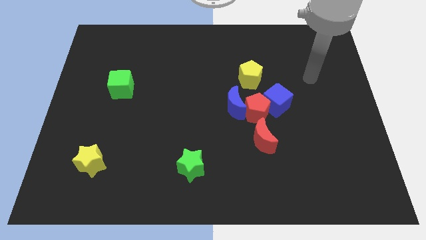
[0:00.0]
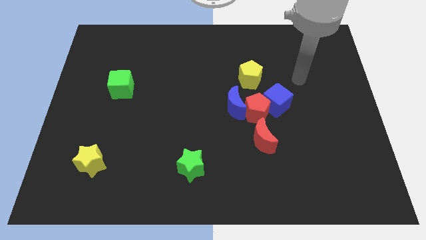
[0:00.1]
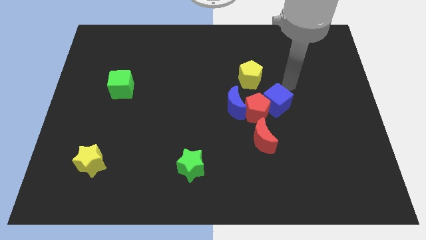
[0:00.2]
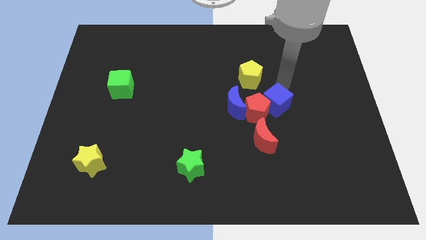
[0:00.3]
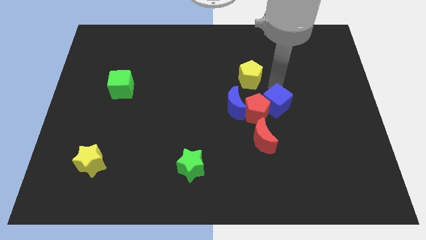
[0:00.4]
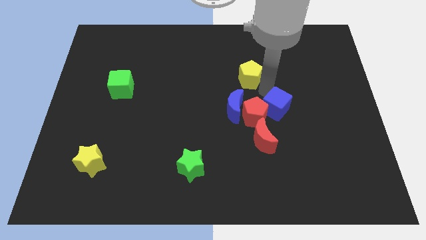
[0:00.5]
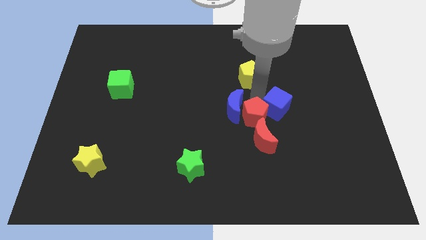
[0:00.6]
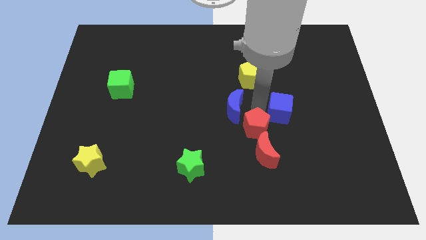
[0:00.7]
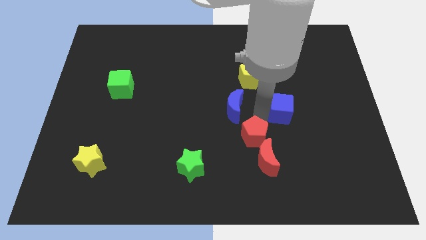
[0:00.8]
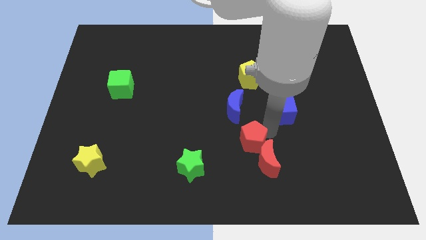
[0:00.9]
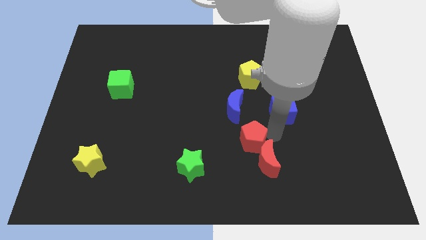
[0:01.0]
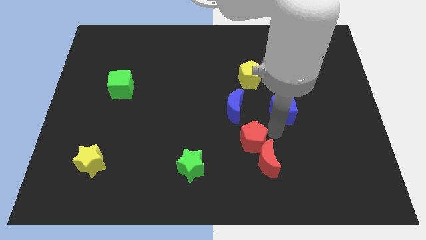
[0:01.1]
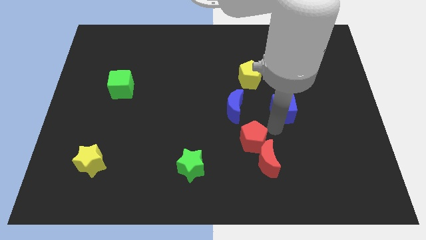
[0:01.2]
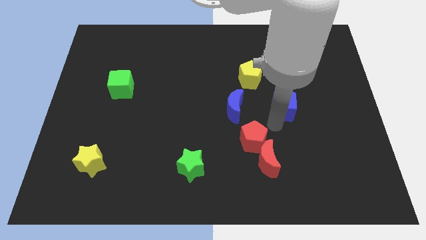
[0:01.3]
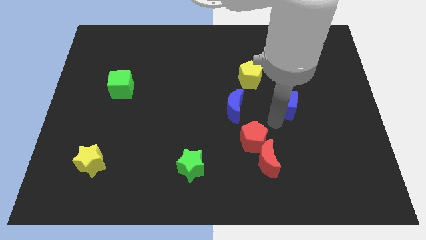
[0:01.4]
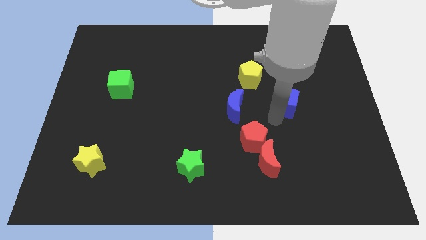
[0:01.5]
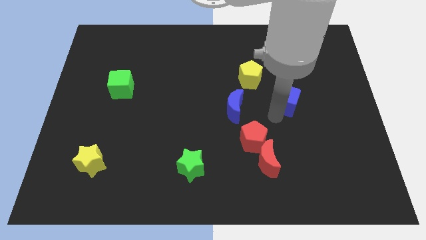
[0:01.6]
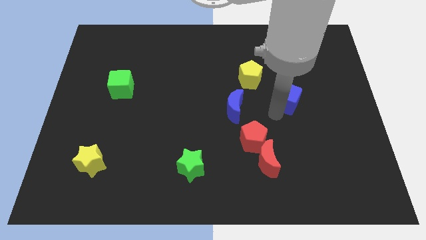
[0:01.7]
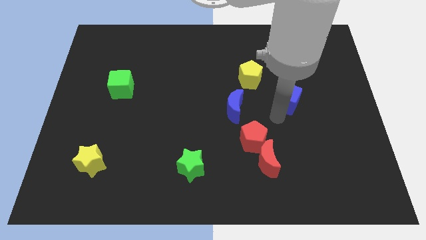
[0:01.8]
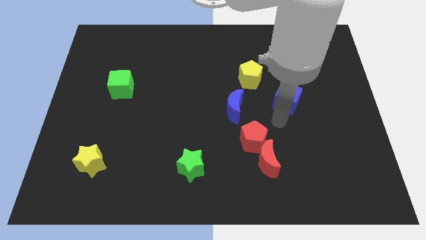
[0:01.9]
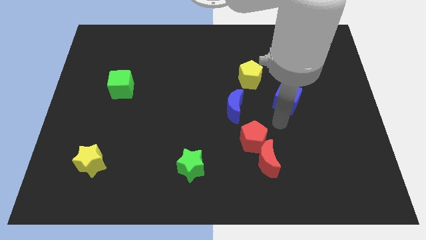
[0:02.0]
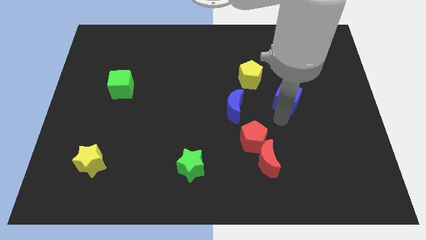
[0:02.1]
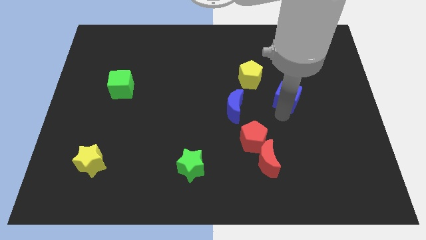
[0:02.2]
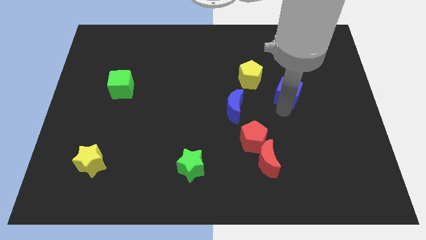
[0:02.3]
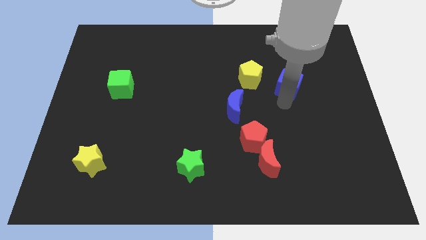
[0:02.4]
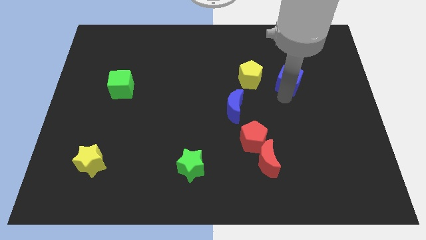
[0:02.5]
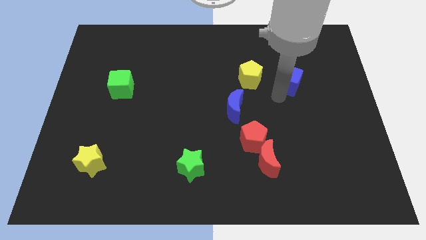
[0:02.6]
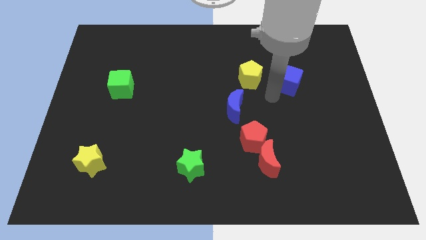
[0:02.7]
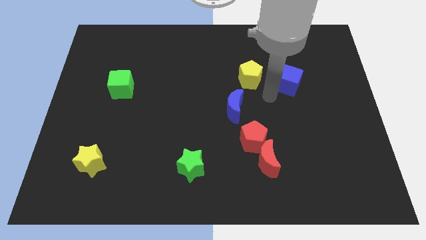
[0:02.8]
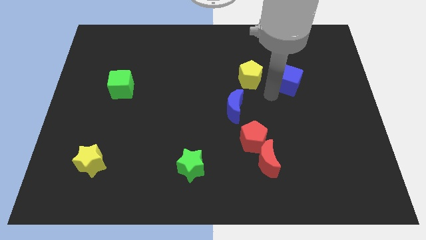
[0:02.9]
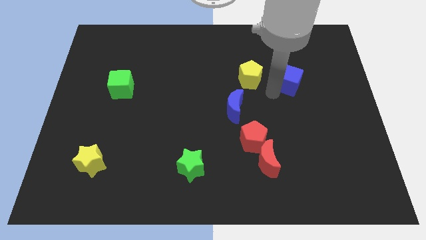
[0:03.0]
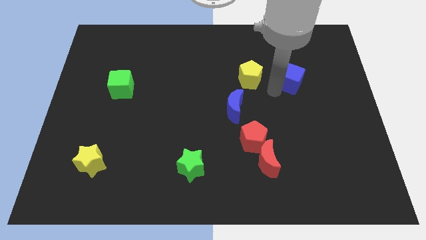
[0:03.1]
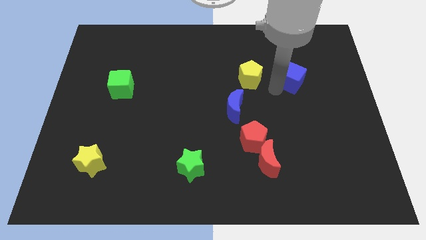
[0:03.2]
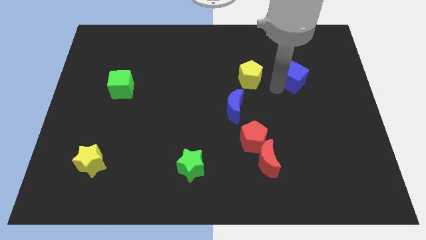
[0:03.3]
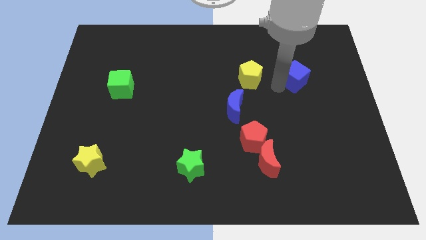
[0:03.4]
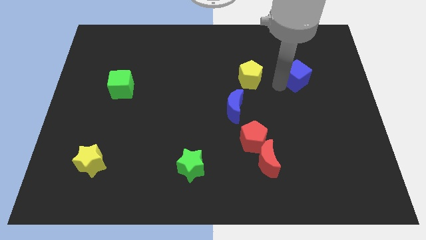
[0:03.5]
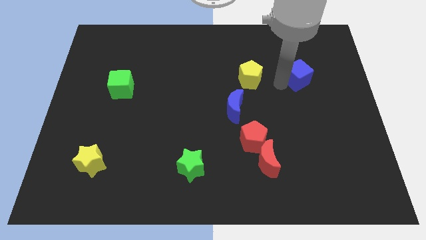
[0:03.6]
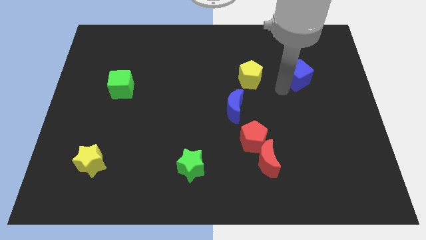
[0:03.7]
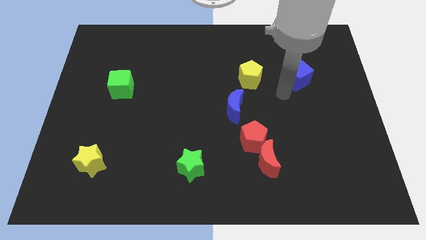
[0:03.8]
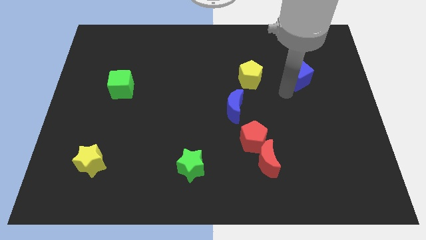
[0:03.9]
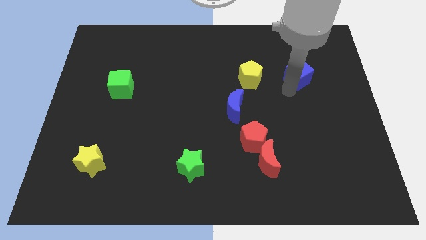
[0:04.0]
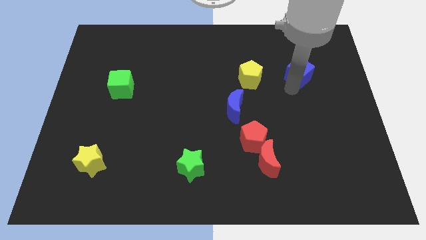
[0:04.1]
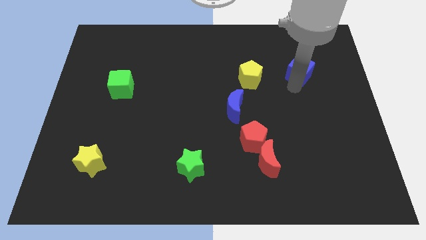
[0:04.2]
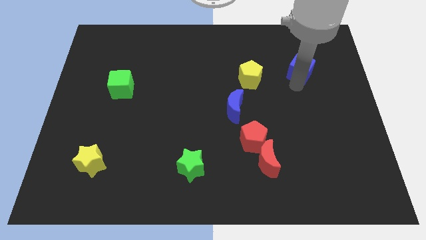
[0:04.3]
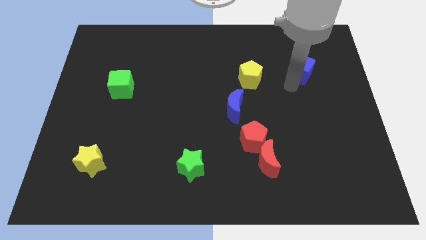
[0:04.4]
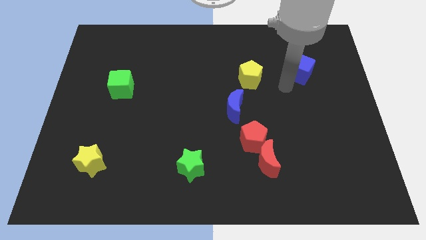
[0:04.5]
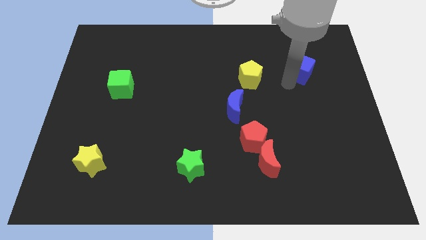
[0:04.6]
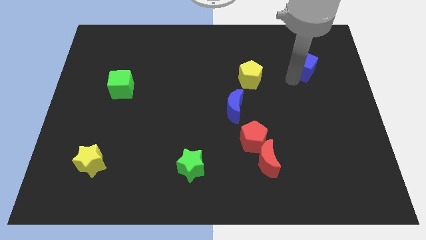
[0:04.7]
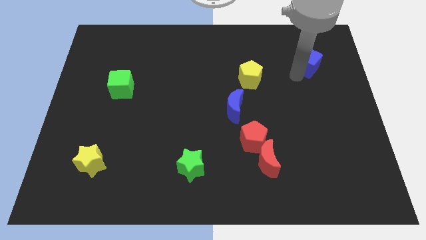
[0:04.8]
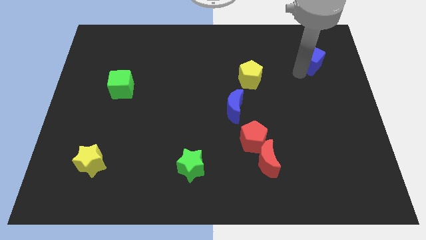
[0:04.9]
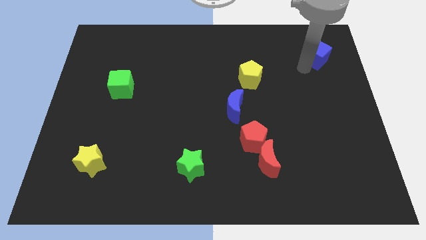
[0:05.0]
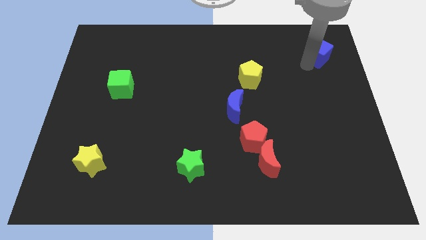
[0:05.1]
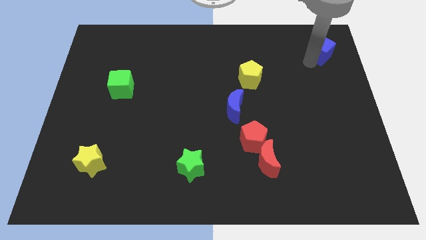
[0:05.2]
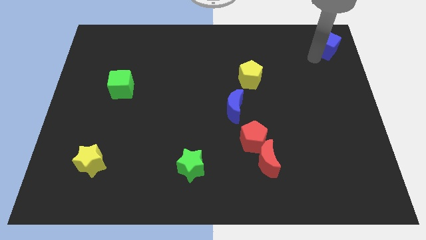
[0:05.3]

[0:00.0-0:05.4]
put the blue cube to the top right

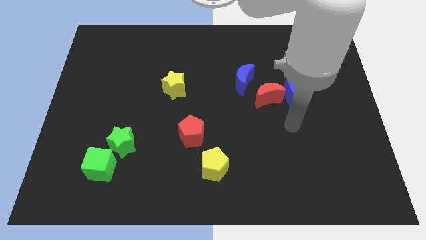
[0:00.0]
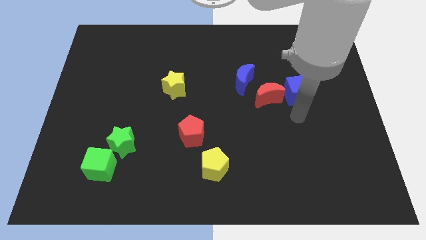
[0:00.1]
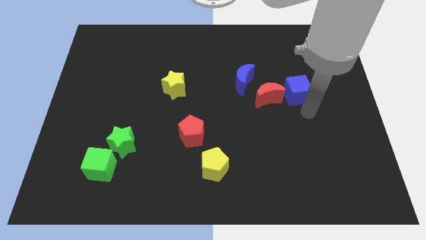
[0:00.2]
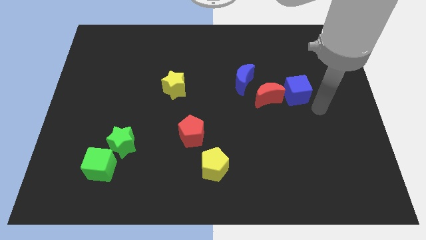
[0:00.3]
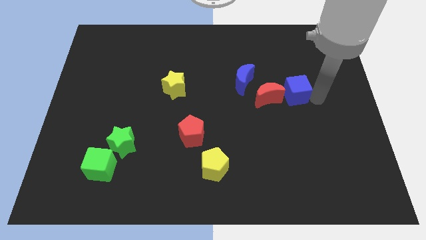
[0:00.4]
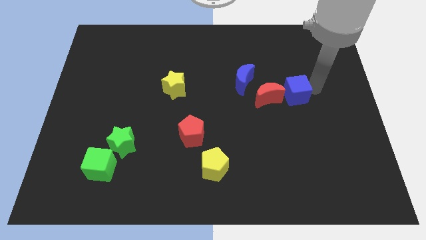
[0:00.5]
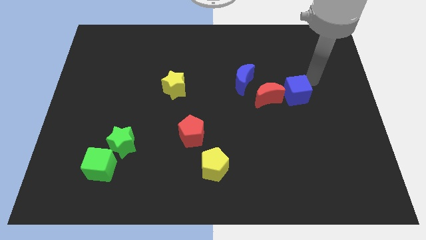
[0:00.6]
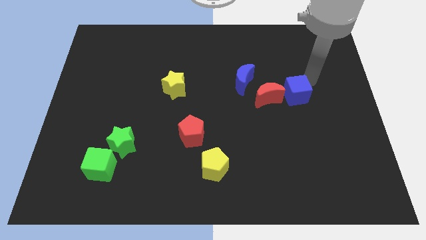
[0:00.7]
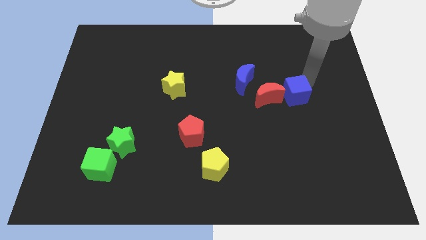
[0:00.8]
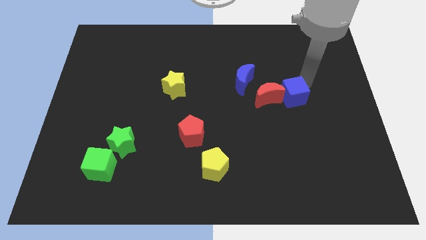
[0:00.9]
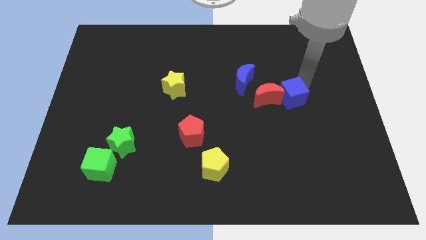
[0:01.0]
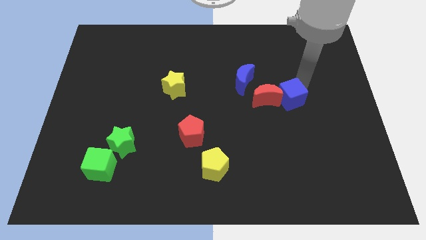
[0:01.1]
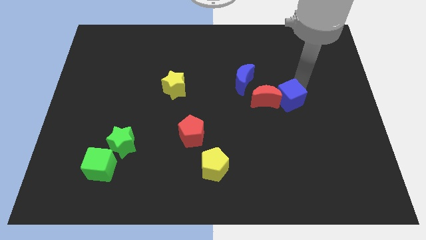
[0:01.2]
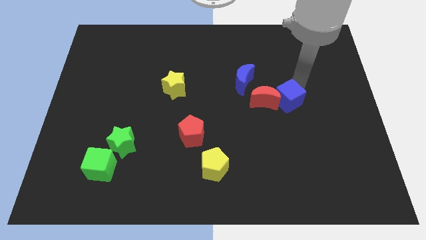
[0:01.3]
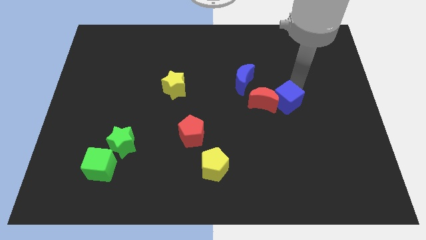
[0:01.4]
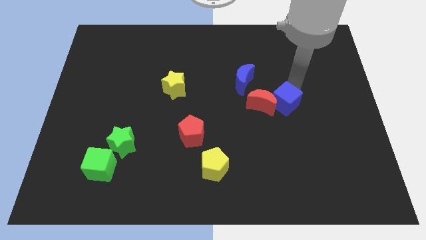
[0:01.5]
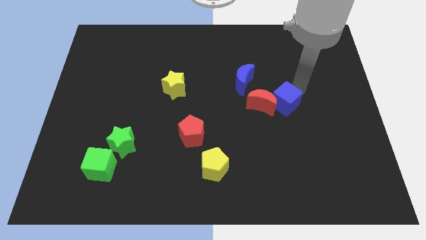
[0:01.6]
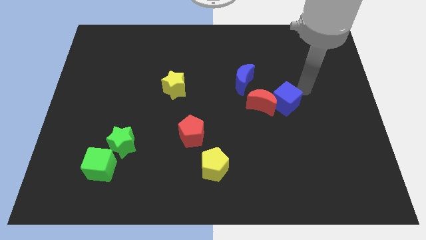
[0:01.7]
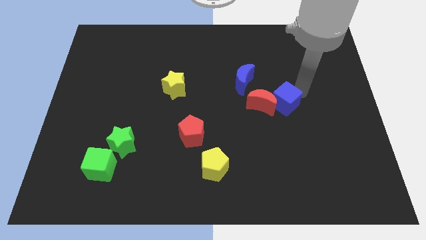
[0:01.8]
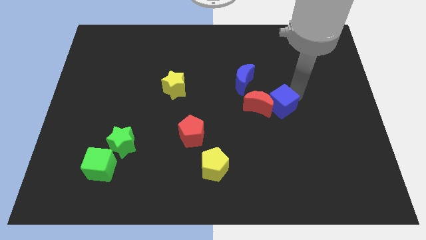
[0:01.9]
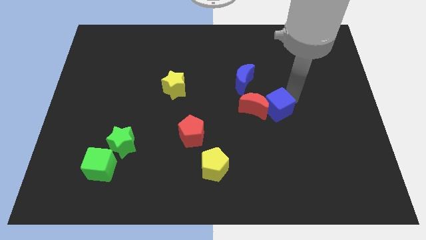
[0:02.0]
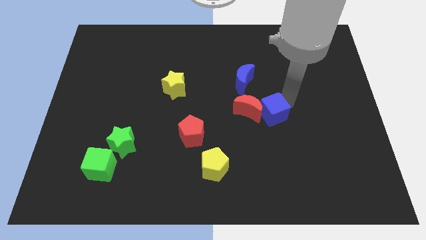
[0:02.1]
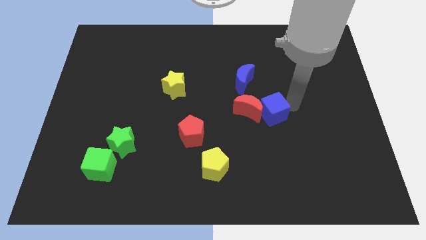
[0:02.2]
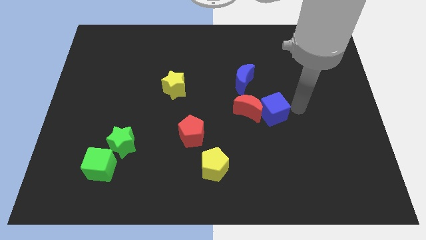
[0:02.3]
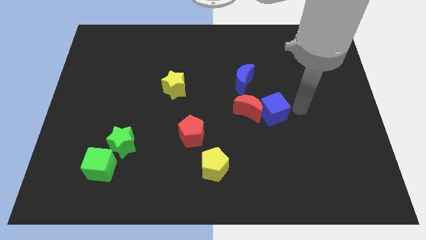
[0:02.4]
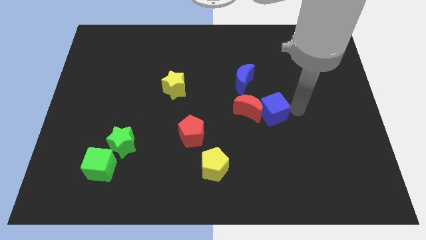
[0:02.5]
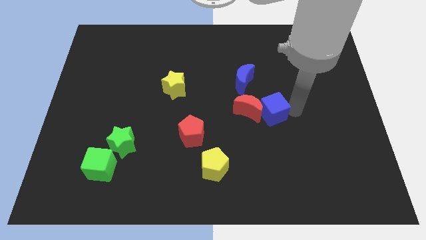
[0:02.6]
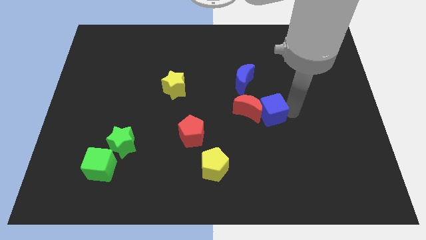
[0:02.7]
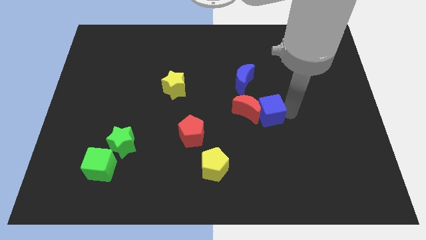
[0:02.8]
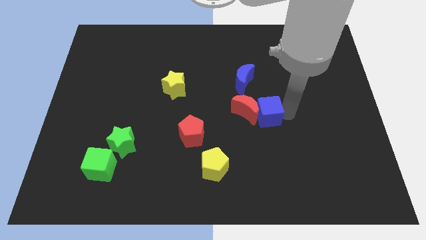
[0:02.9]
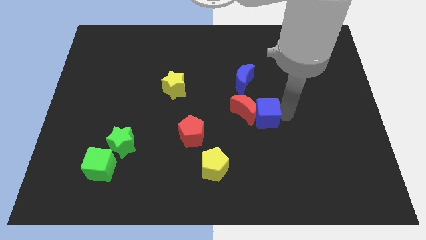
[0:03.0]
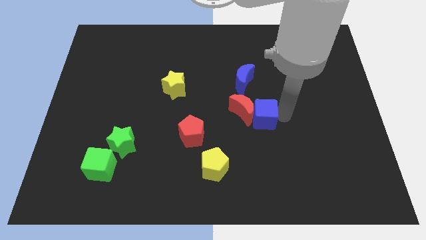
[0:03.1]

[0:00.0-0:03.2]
put the blue cube to the middle
